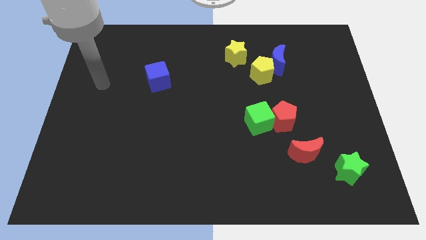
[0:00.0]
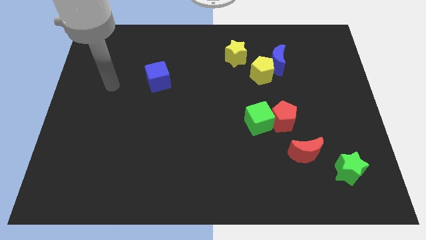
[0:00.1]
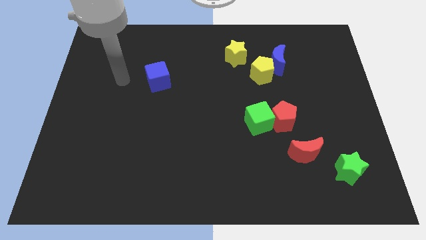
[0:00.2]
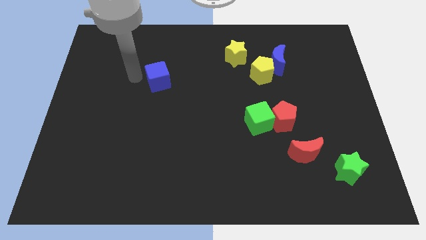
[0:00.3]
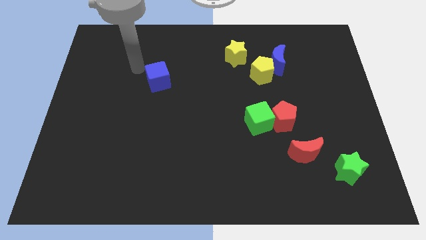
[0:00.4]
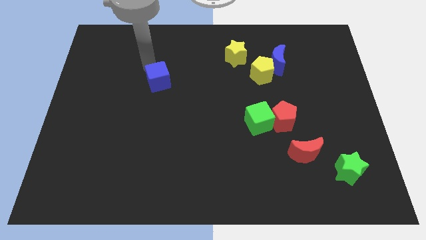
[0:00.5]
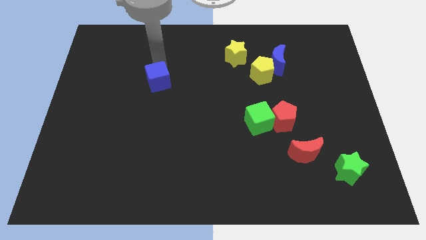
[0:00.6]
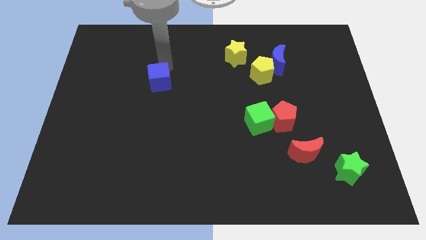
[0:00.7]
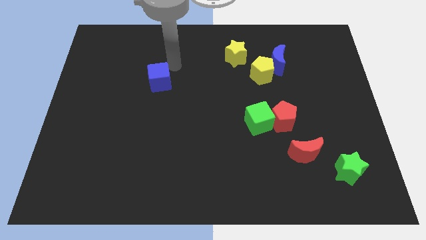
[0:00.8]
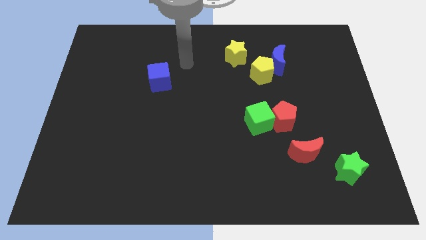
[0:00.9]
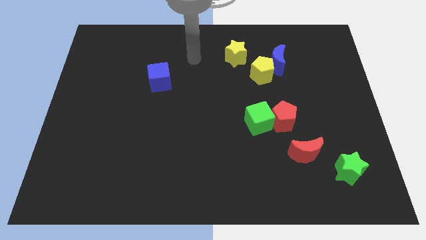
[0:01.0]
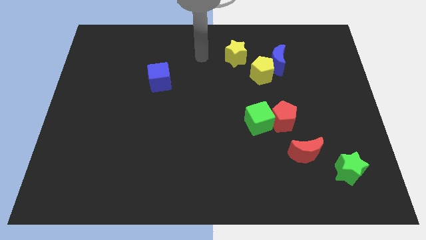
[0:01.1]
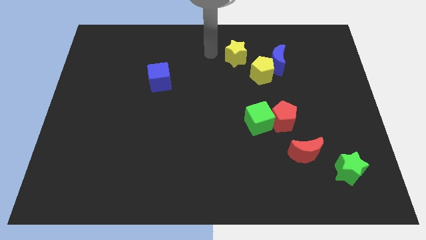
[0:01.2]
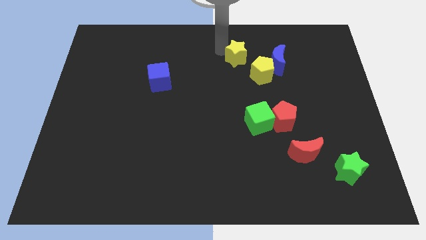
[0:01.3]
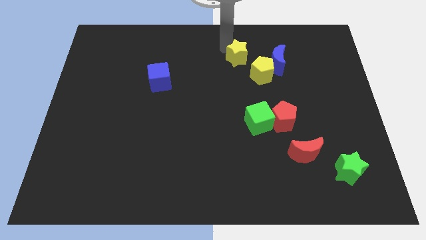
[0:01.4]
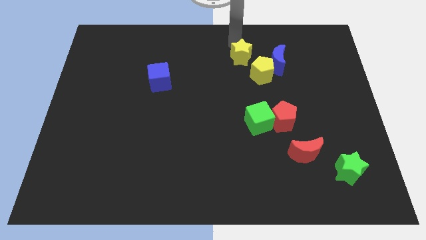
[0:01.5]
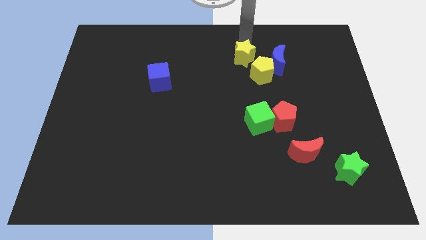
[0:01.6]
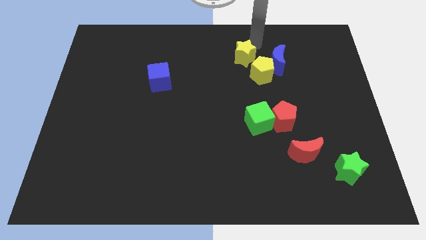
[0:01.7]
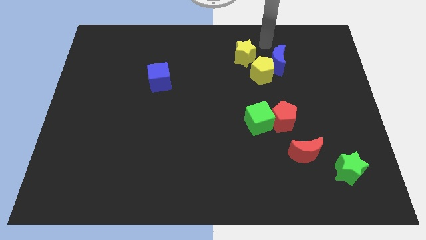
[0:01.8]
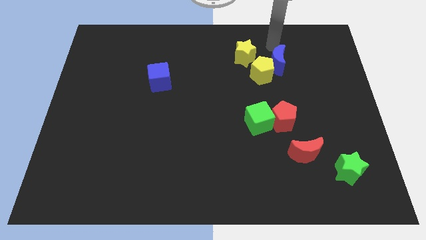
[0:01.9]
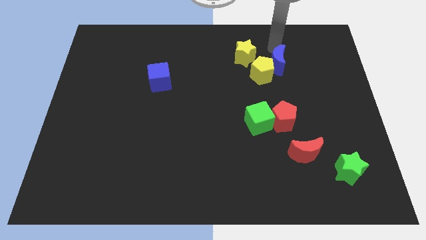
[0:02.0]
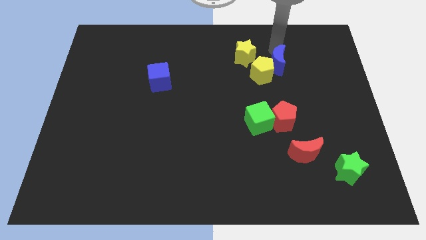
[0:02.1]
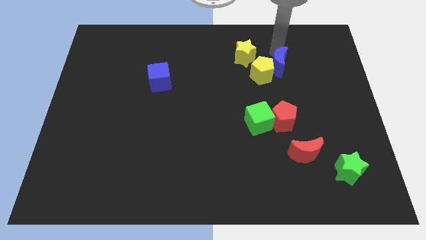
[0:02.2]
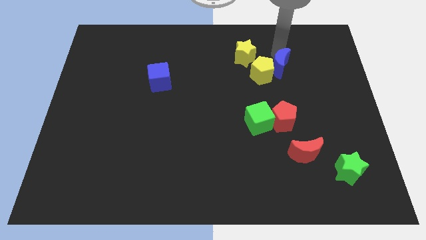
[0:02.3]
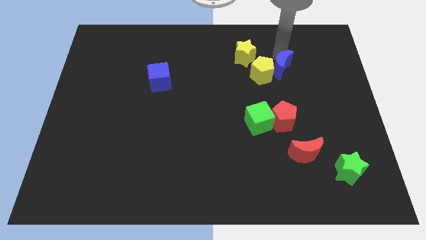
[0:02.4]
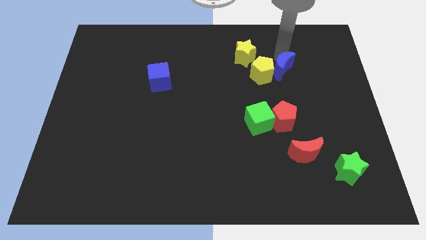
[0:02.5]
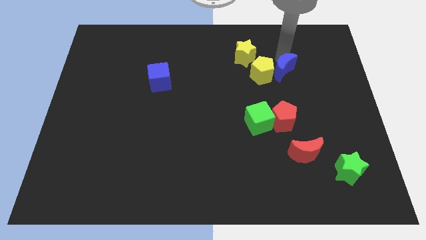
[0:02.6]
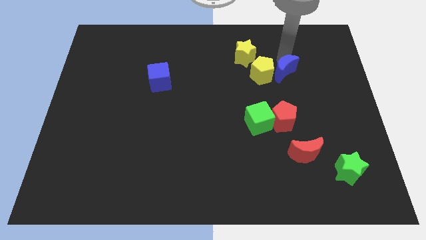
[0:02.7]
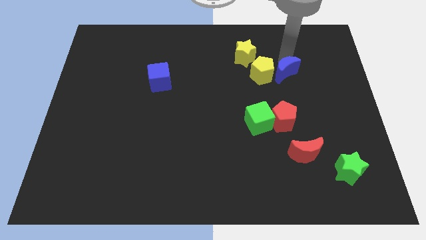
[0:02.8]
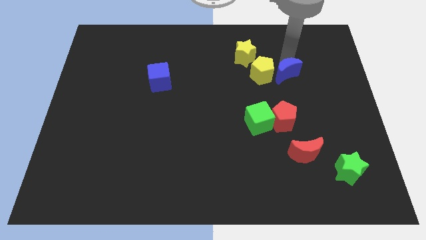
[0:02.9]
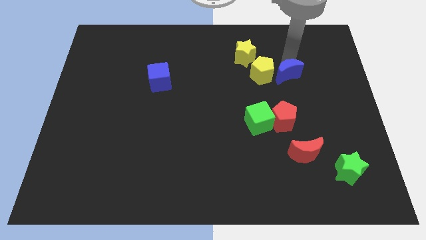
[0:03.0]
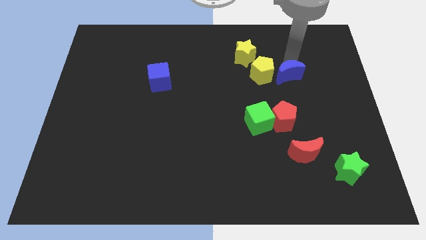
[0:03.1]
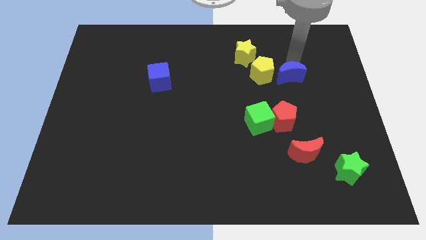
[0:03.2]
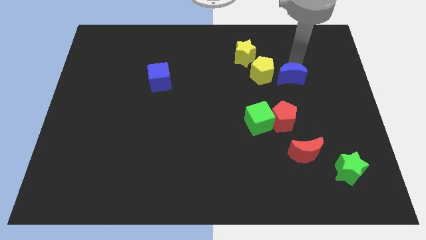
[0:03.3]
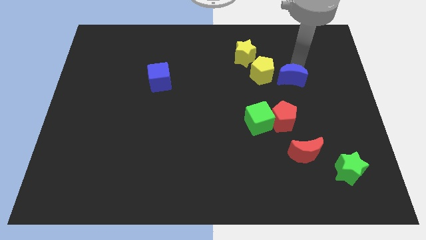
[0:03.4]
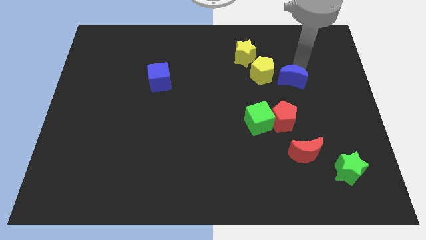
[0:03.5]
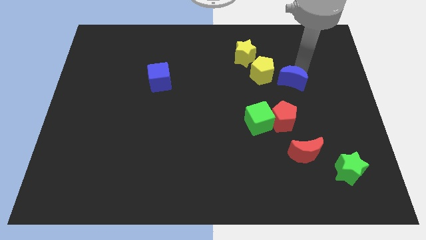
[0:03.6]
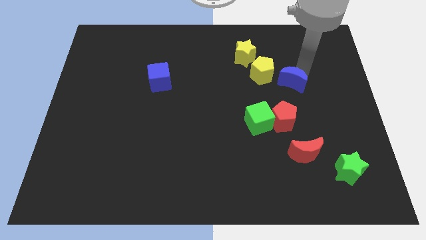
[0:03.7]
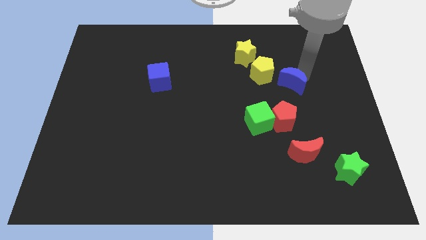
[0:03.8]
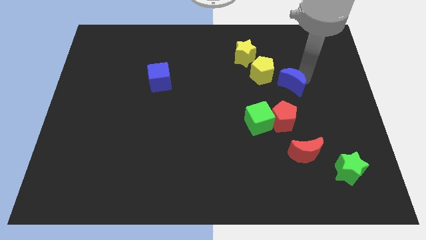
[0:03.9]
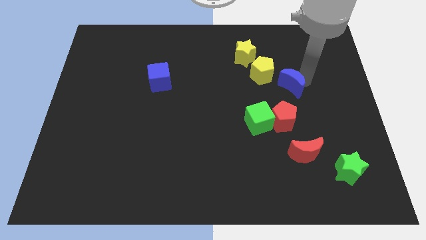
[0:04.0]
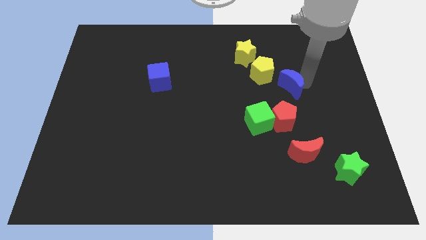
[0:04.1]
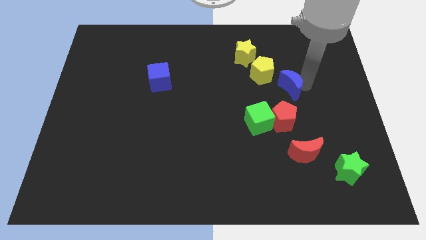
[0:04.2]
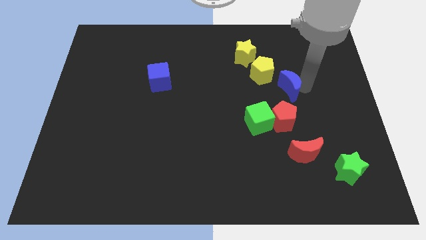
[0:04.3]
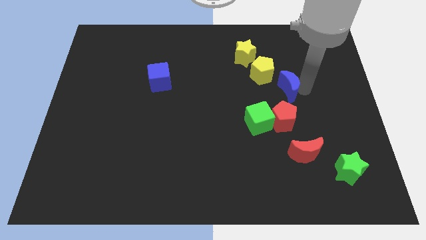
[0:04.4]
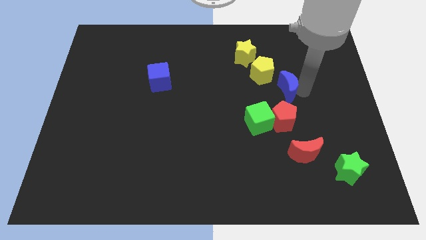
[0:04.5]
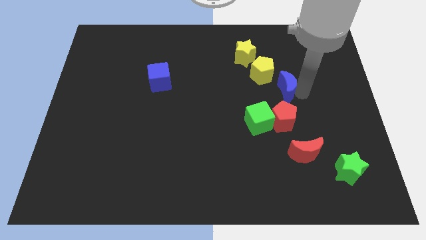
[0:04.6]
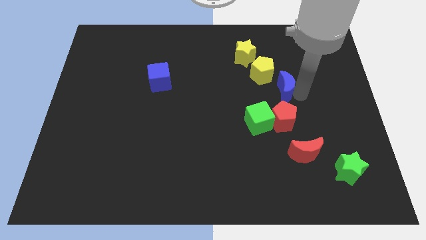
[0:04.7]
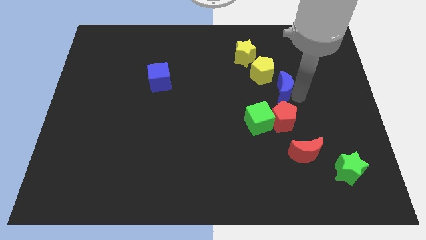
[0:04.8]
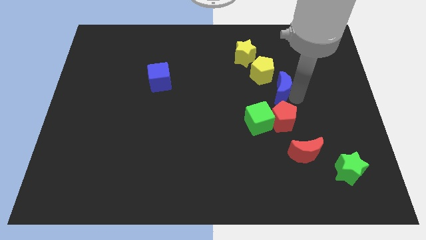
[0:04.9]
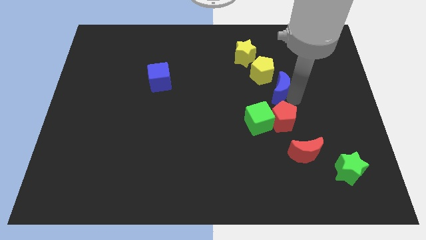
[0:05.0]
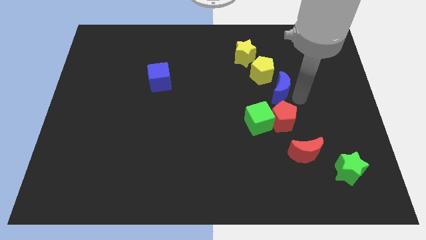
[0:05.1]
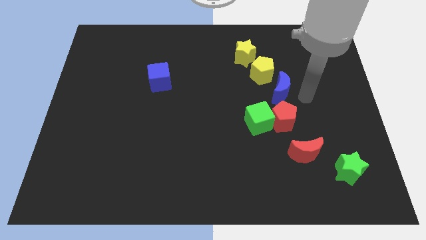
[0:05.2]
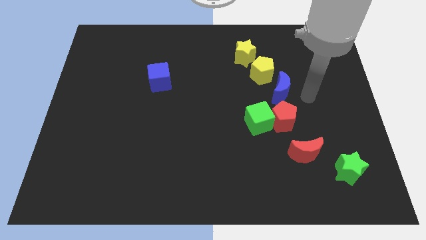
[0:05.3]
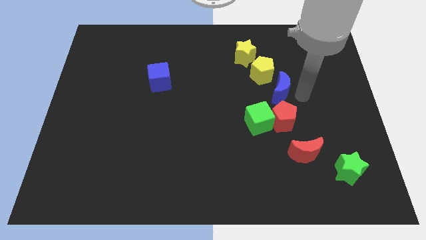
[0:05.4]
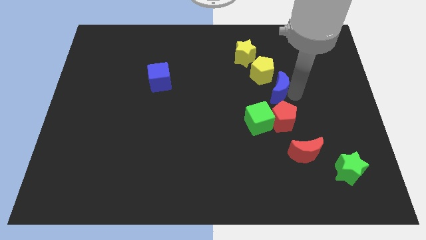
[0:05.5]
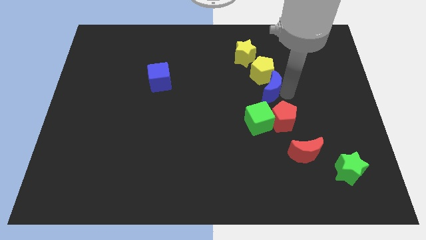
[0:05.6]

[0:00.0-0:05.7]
move the blue moon to the top side of the green cube

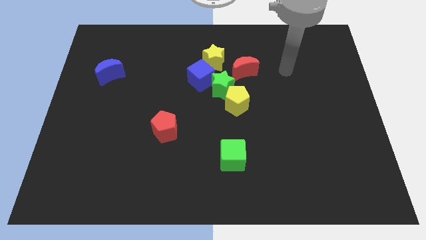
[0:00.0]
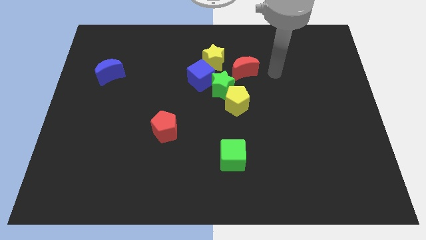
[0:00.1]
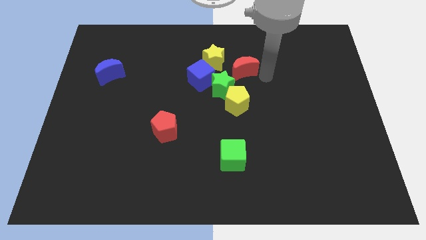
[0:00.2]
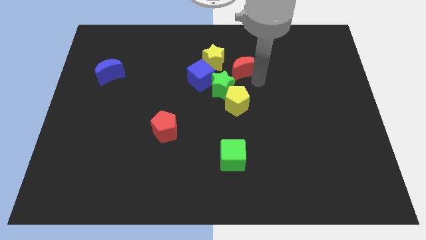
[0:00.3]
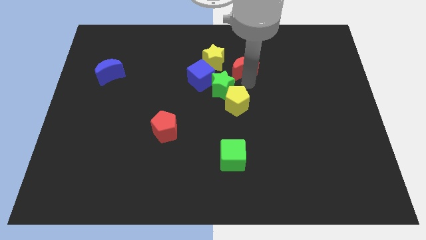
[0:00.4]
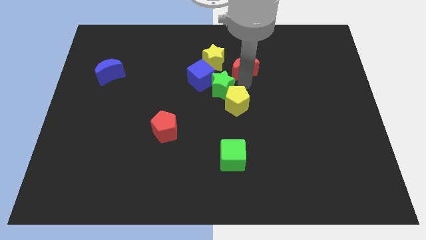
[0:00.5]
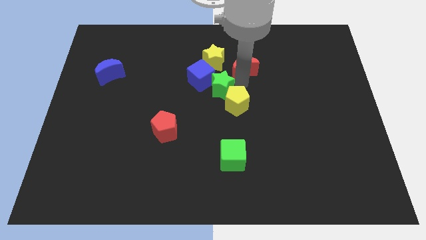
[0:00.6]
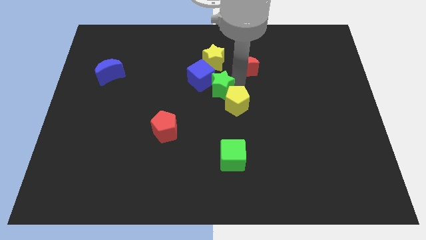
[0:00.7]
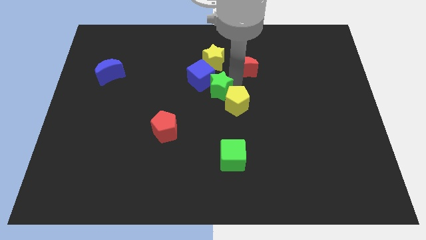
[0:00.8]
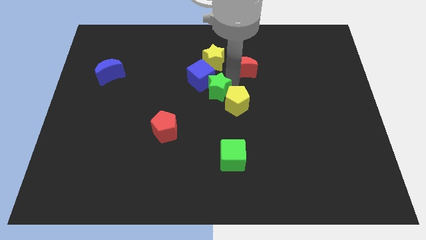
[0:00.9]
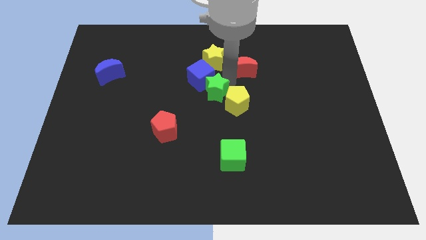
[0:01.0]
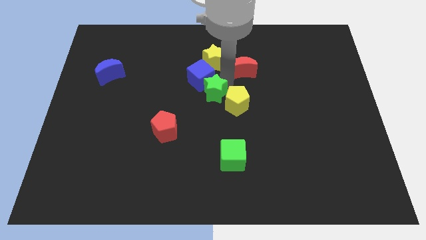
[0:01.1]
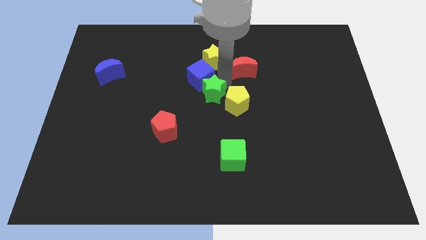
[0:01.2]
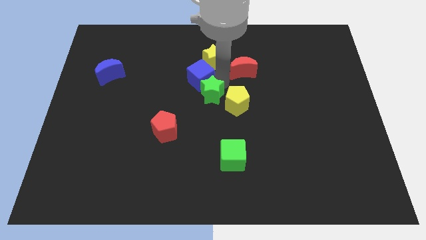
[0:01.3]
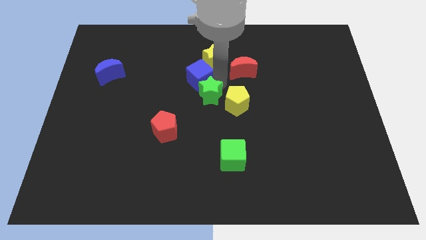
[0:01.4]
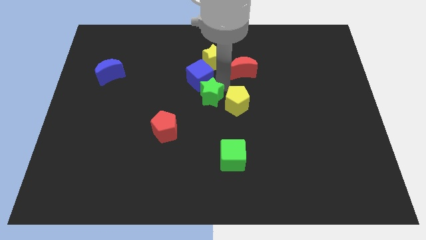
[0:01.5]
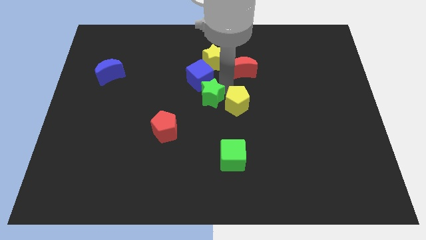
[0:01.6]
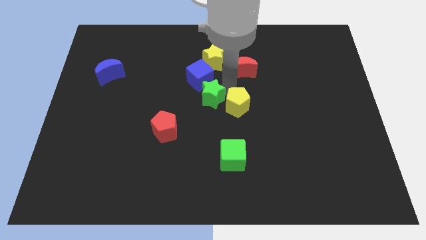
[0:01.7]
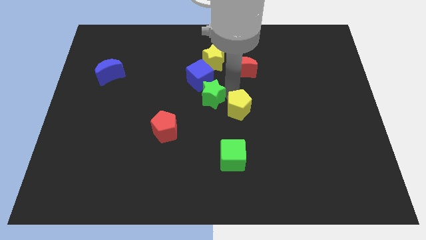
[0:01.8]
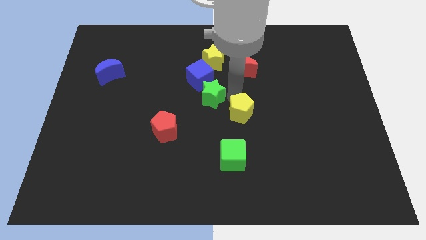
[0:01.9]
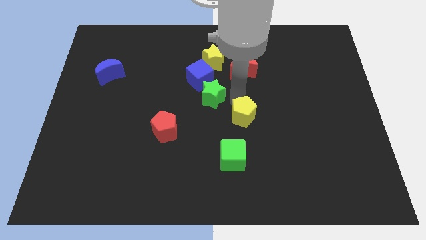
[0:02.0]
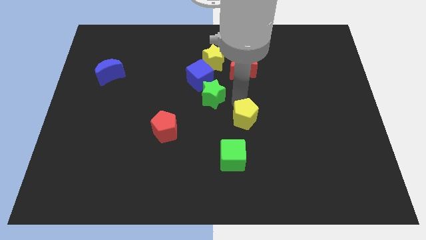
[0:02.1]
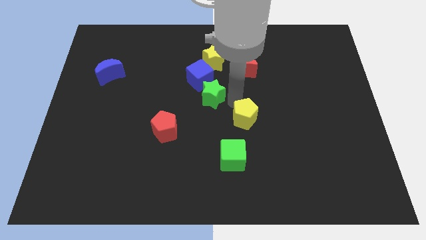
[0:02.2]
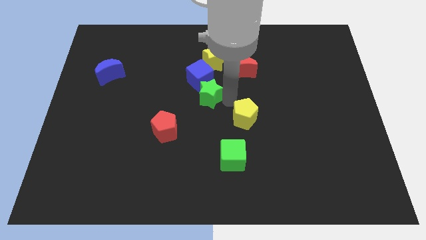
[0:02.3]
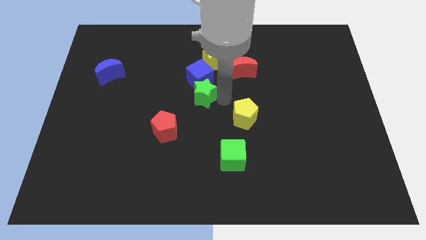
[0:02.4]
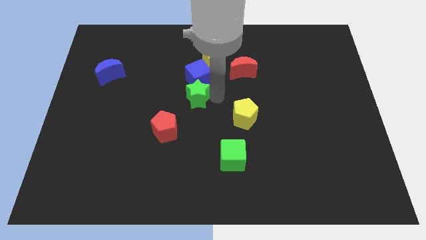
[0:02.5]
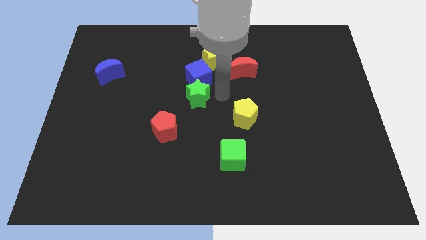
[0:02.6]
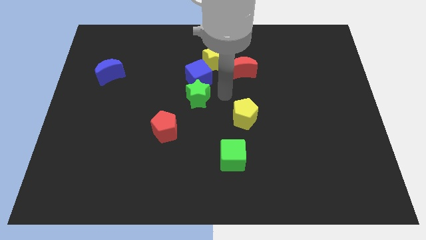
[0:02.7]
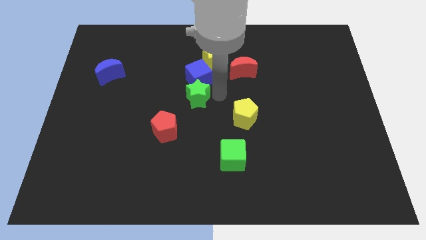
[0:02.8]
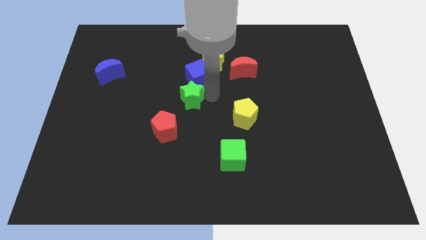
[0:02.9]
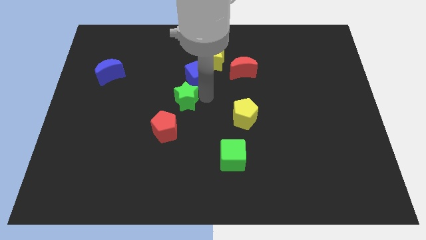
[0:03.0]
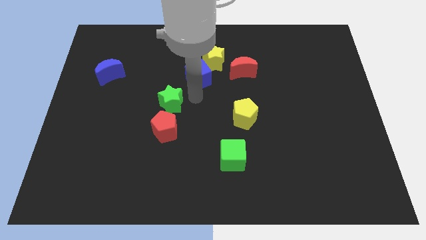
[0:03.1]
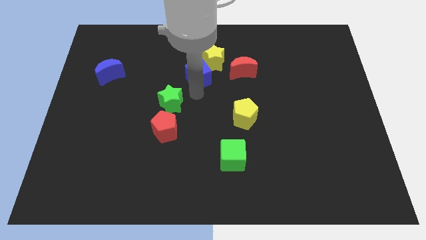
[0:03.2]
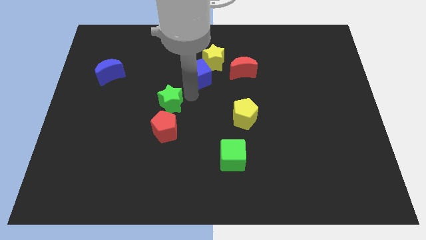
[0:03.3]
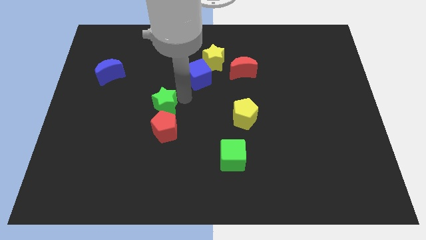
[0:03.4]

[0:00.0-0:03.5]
slide the green star to the top left of the red pentagon
